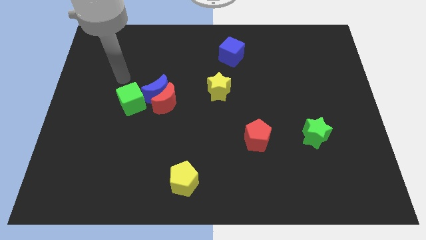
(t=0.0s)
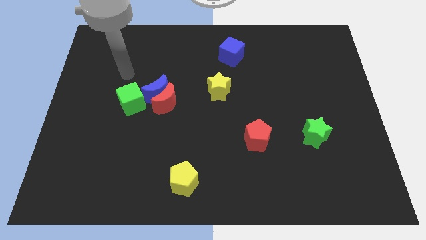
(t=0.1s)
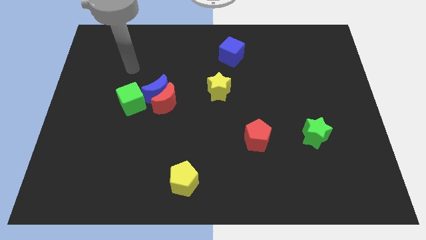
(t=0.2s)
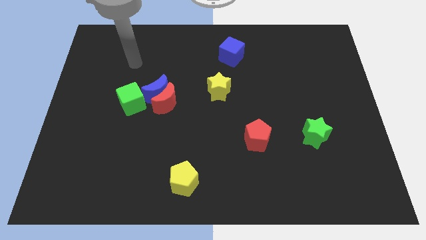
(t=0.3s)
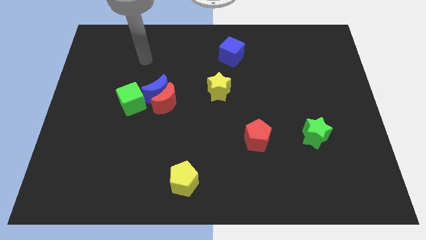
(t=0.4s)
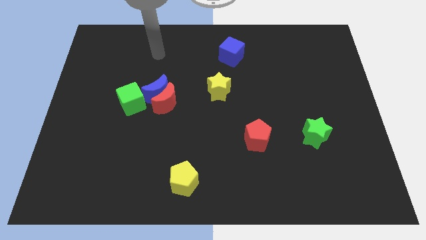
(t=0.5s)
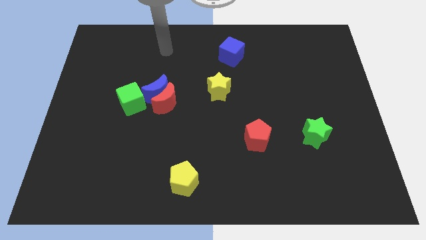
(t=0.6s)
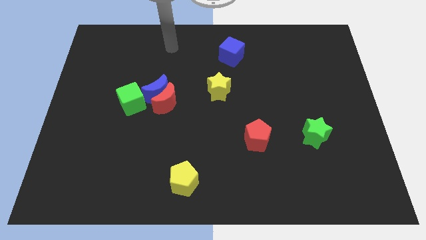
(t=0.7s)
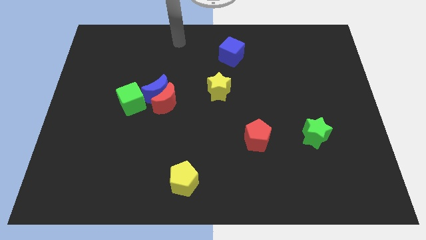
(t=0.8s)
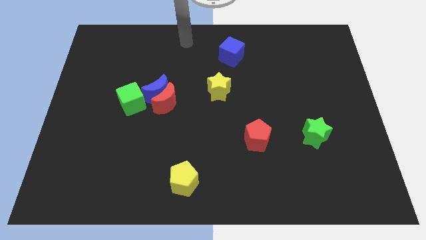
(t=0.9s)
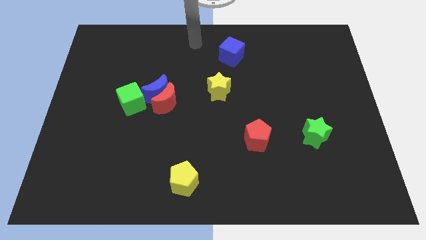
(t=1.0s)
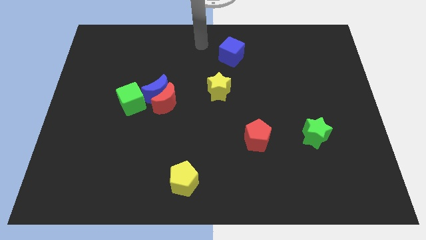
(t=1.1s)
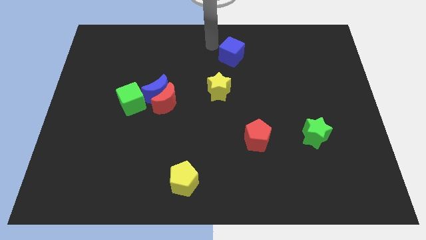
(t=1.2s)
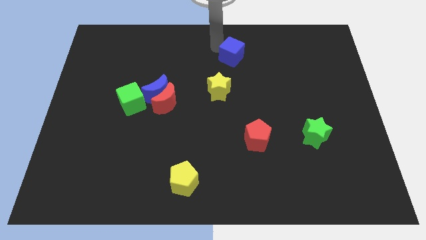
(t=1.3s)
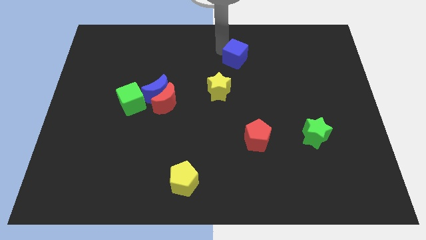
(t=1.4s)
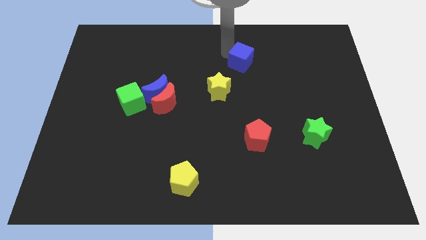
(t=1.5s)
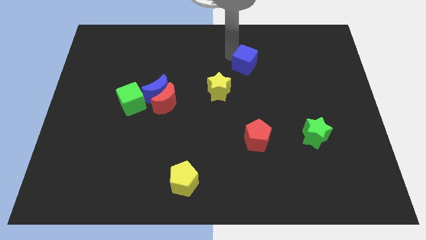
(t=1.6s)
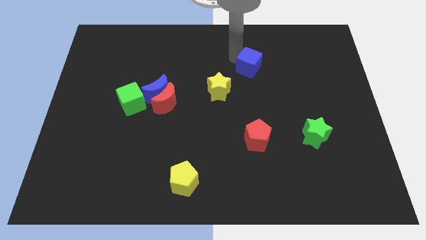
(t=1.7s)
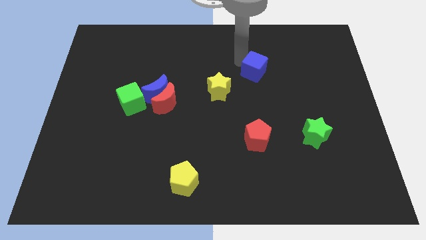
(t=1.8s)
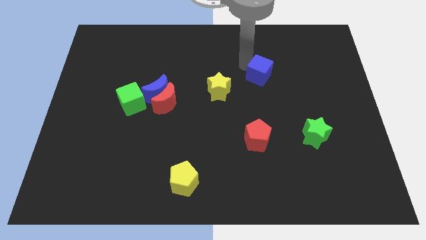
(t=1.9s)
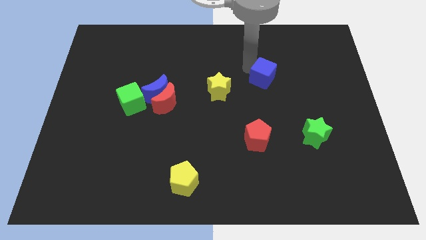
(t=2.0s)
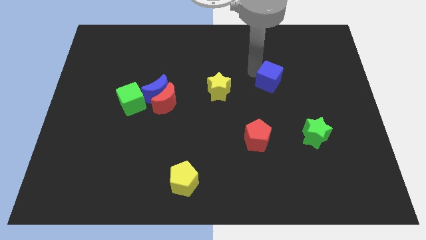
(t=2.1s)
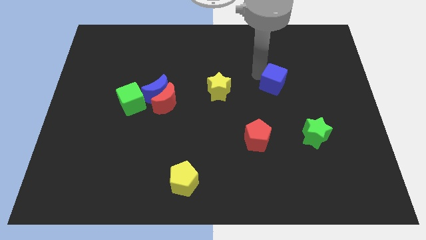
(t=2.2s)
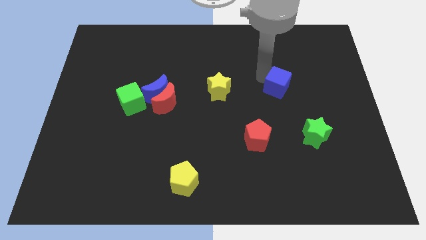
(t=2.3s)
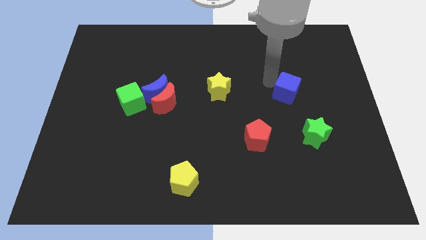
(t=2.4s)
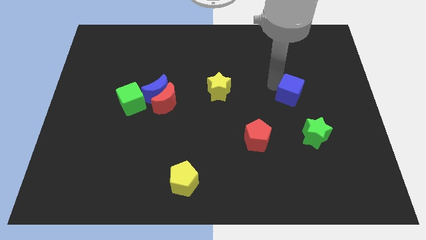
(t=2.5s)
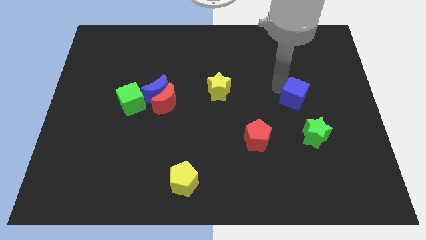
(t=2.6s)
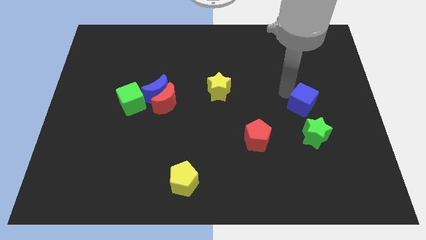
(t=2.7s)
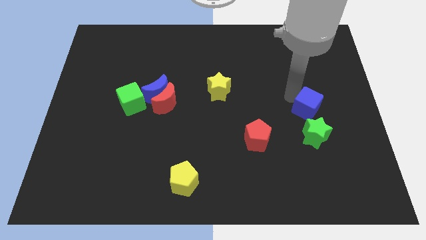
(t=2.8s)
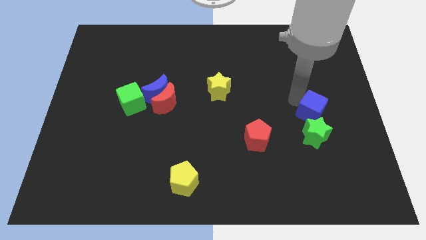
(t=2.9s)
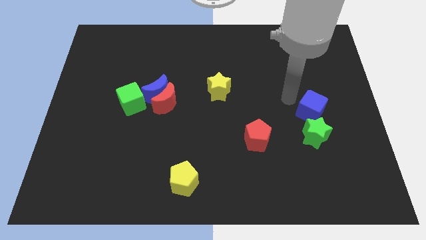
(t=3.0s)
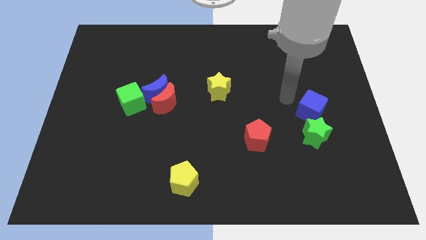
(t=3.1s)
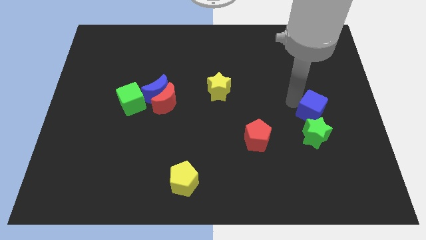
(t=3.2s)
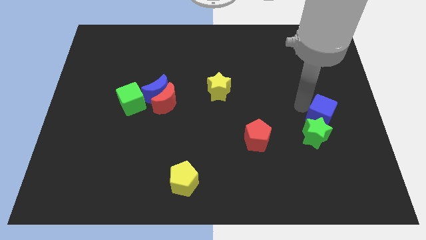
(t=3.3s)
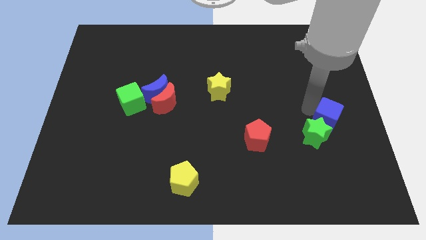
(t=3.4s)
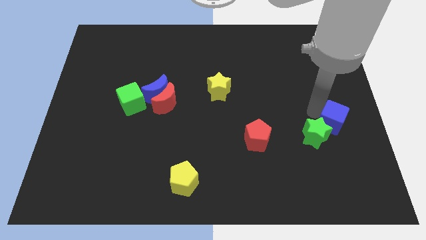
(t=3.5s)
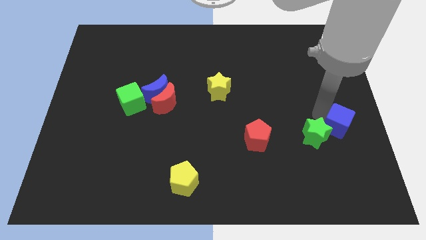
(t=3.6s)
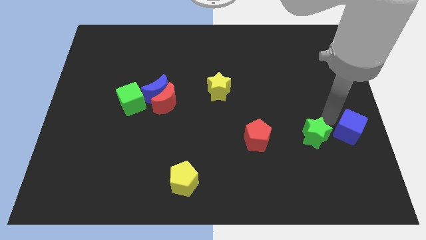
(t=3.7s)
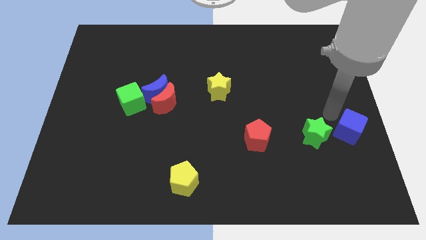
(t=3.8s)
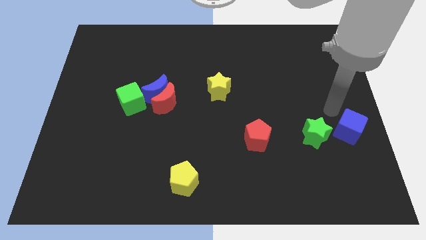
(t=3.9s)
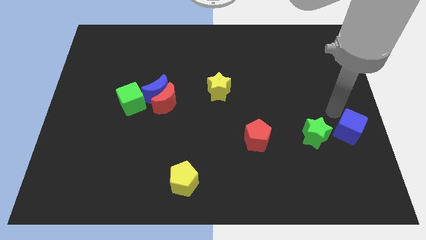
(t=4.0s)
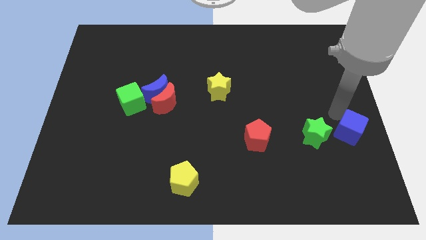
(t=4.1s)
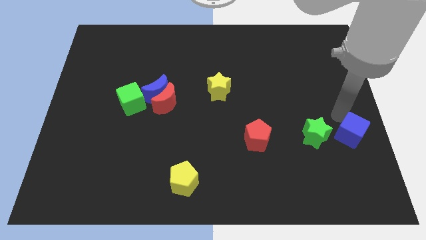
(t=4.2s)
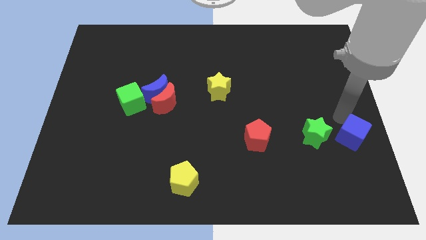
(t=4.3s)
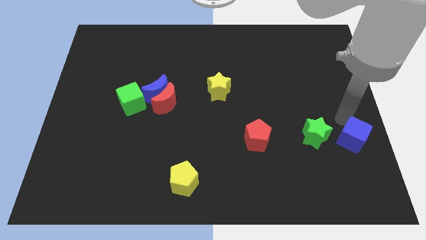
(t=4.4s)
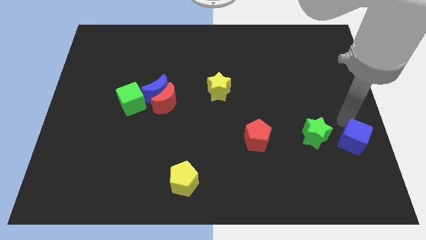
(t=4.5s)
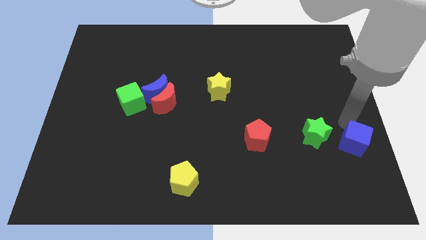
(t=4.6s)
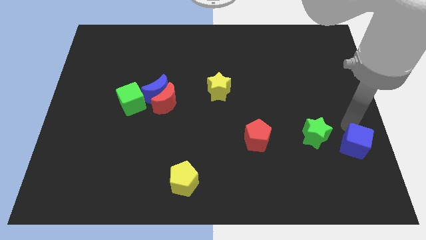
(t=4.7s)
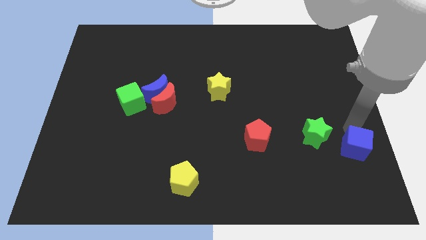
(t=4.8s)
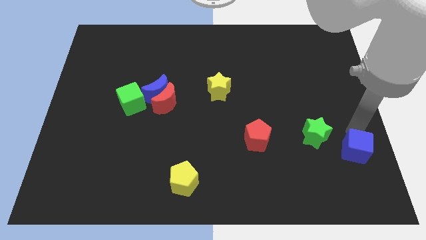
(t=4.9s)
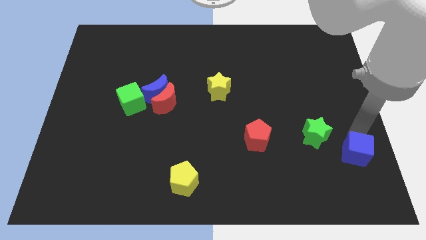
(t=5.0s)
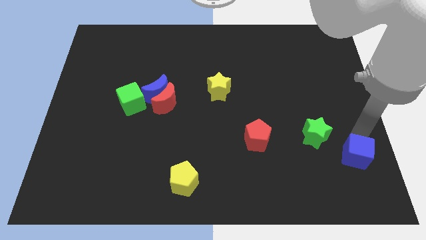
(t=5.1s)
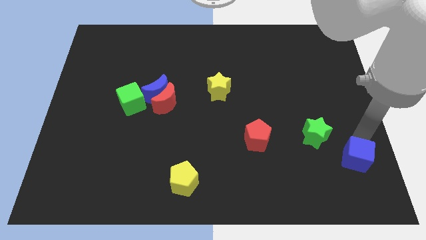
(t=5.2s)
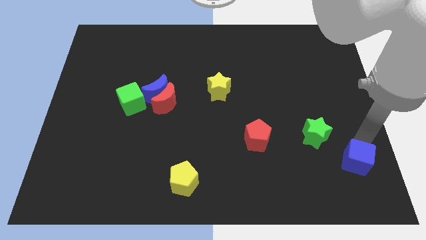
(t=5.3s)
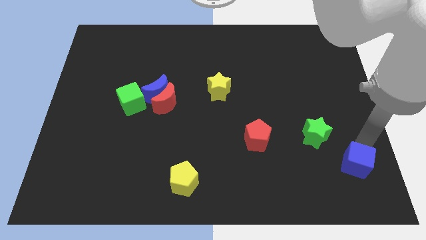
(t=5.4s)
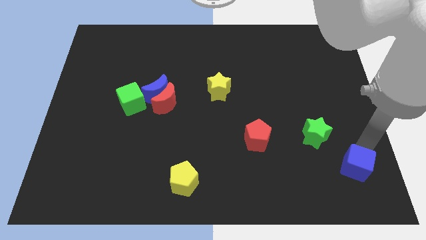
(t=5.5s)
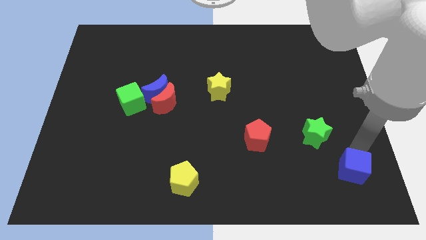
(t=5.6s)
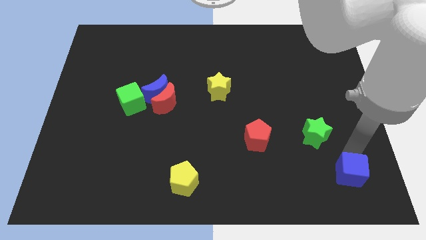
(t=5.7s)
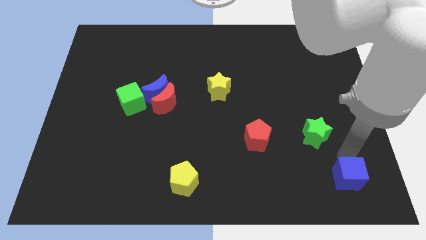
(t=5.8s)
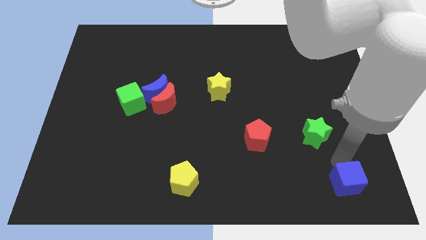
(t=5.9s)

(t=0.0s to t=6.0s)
slide the blue cube to the bottom right of the board

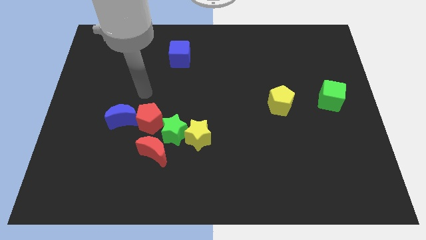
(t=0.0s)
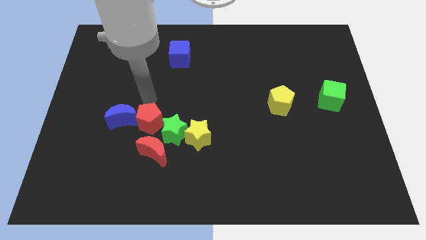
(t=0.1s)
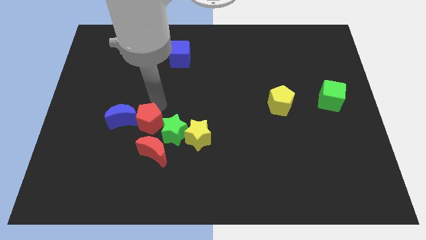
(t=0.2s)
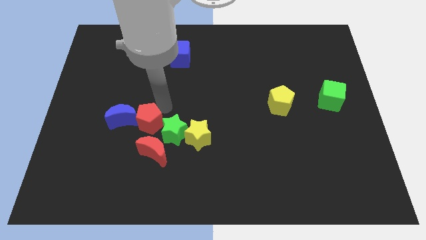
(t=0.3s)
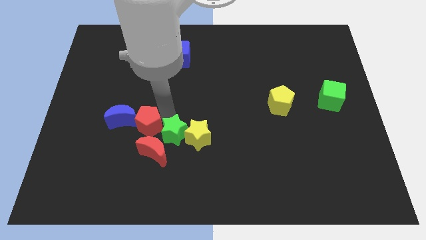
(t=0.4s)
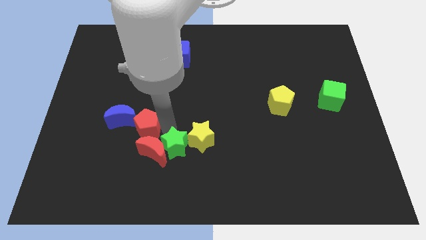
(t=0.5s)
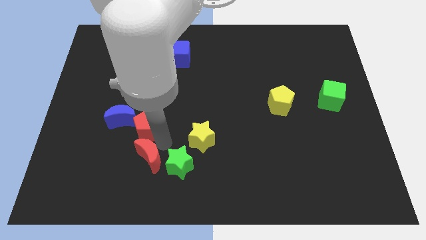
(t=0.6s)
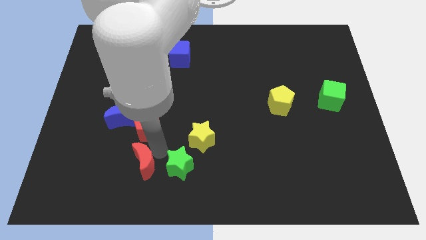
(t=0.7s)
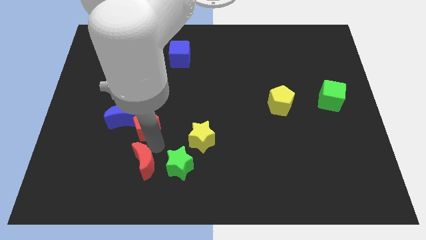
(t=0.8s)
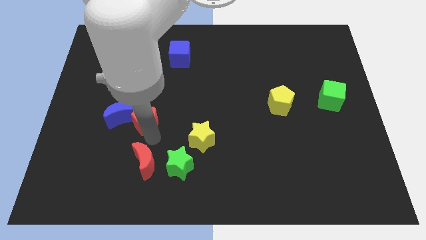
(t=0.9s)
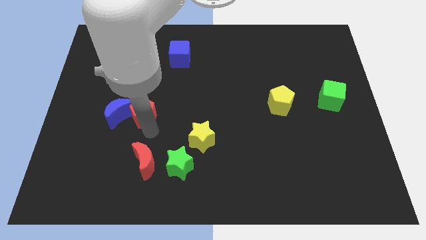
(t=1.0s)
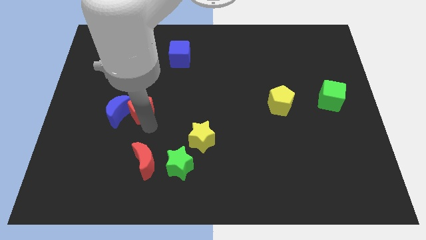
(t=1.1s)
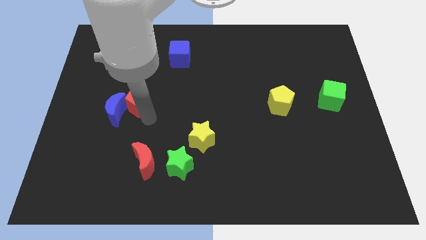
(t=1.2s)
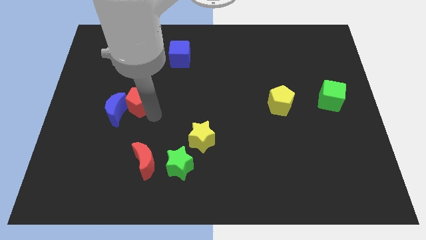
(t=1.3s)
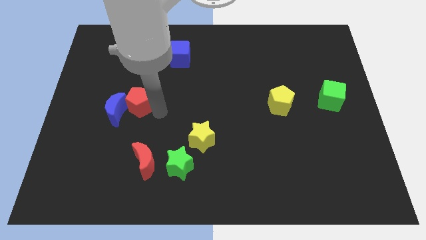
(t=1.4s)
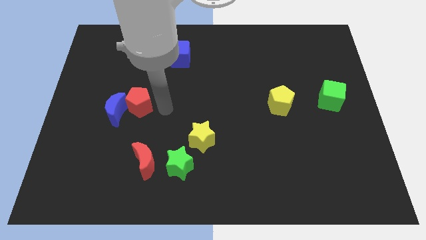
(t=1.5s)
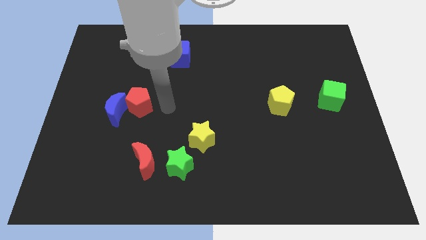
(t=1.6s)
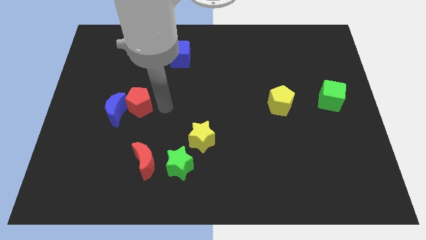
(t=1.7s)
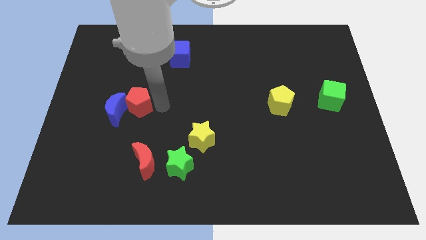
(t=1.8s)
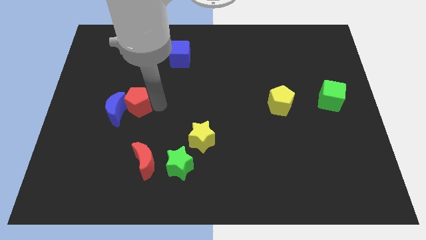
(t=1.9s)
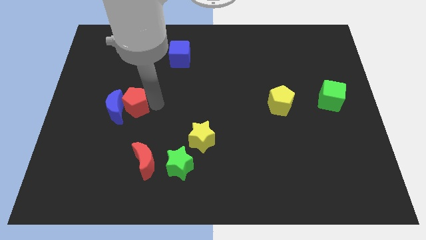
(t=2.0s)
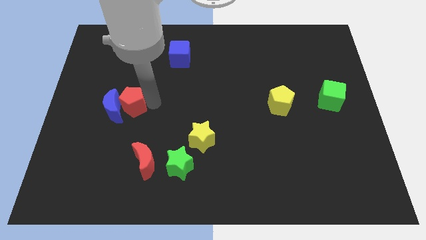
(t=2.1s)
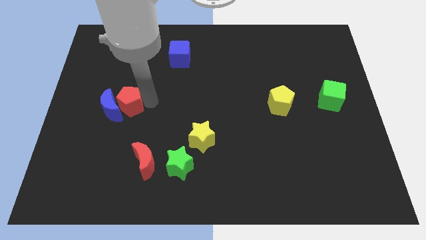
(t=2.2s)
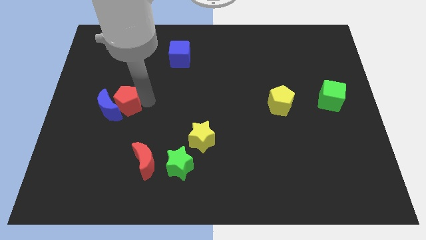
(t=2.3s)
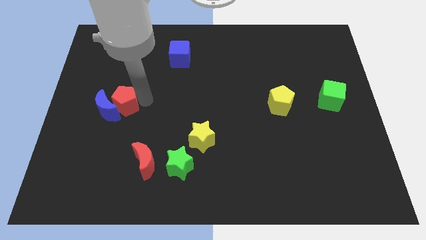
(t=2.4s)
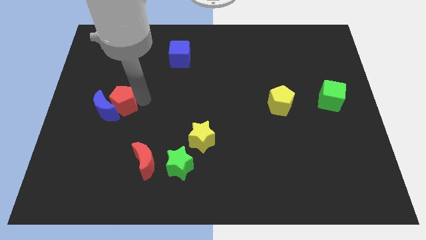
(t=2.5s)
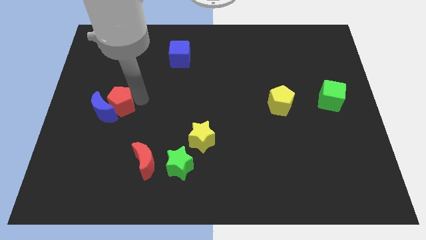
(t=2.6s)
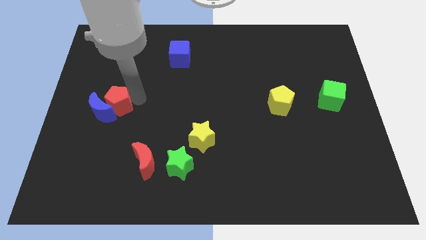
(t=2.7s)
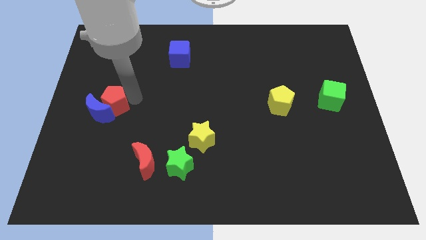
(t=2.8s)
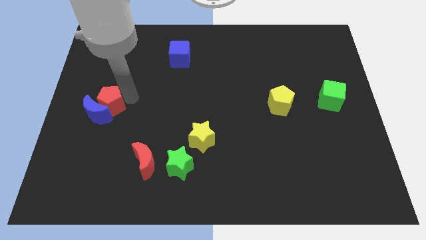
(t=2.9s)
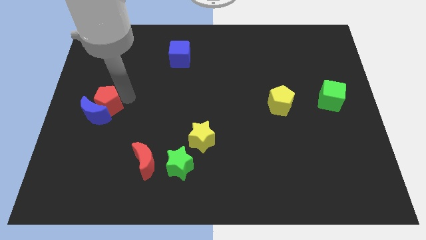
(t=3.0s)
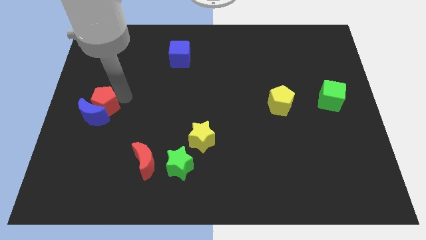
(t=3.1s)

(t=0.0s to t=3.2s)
put the red pentagon to the left side of the board
